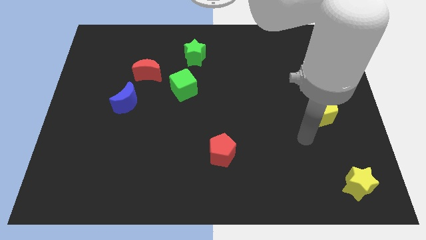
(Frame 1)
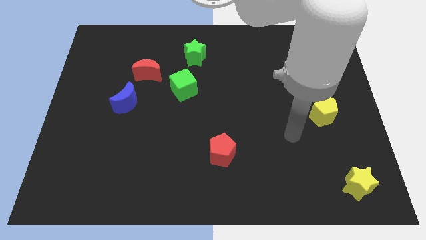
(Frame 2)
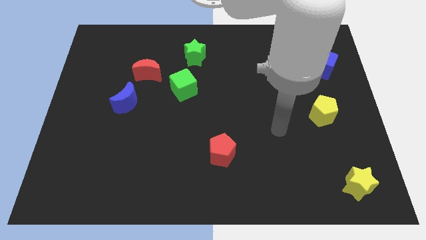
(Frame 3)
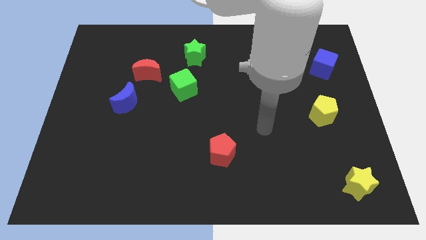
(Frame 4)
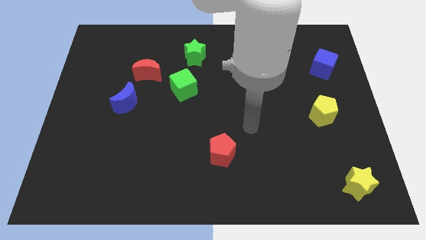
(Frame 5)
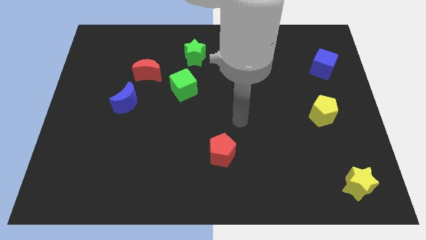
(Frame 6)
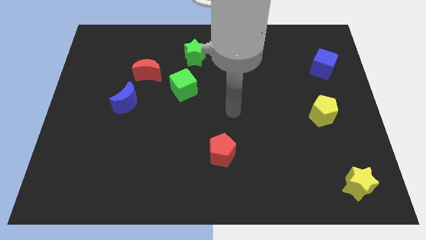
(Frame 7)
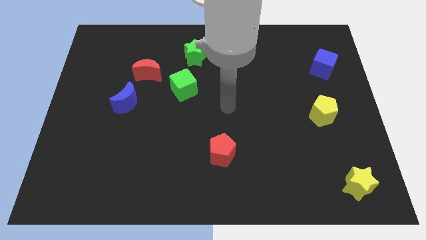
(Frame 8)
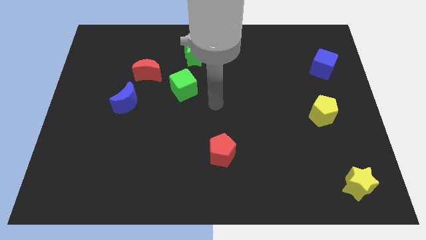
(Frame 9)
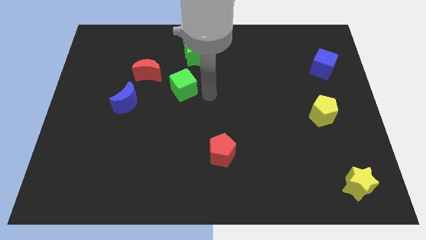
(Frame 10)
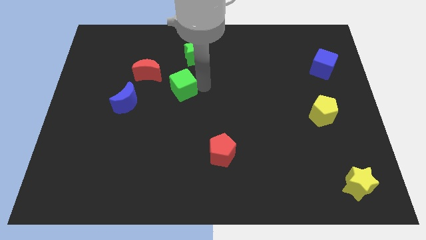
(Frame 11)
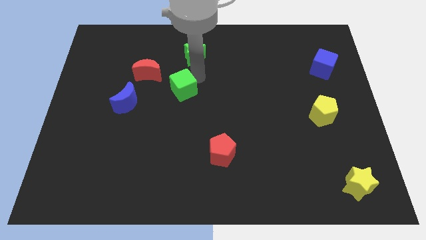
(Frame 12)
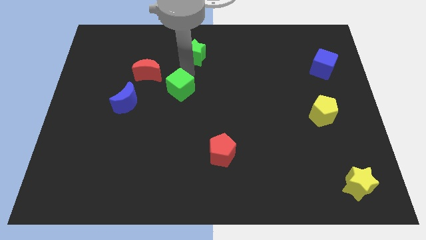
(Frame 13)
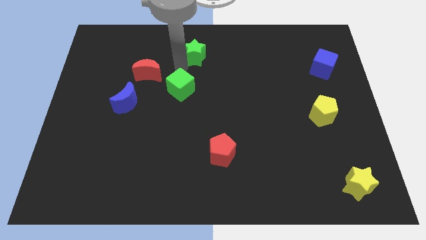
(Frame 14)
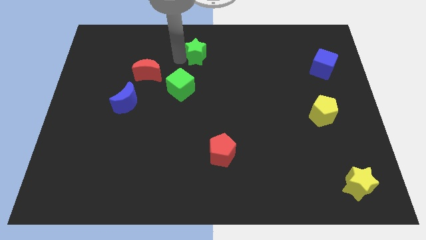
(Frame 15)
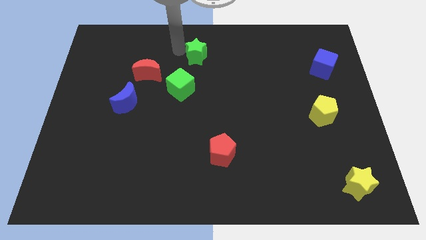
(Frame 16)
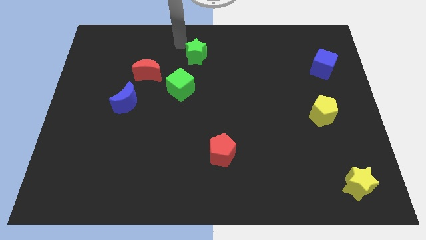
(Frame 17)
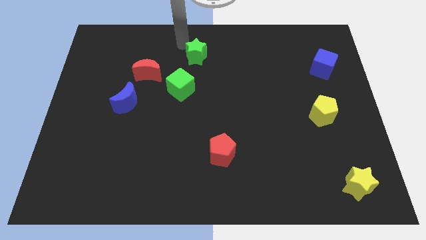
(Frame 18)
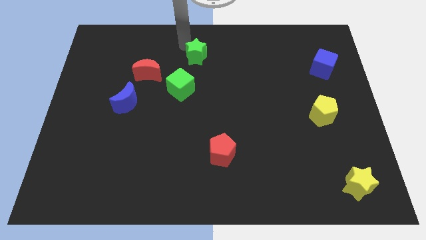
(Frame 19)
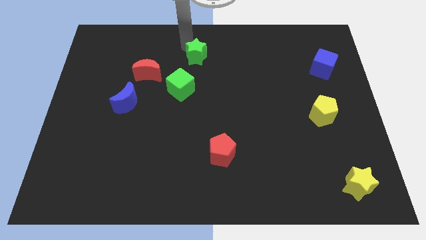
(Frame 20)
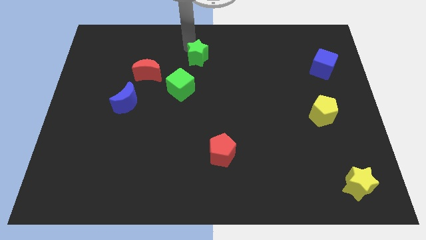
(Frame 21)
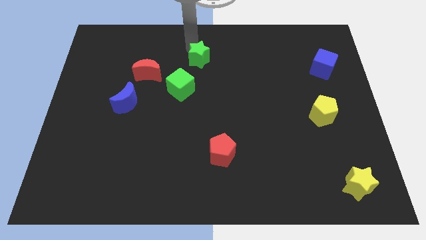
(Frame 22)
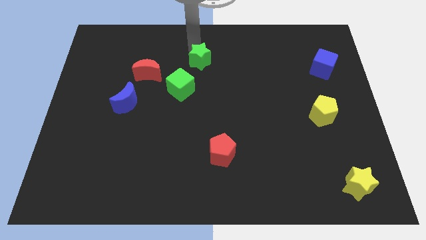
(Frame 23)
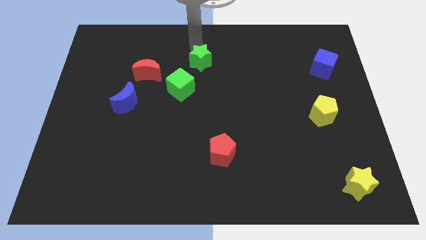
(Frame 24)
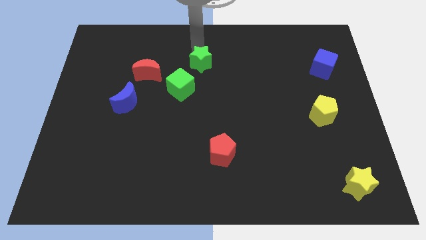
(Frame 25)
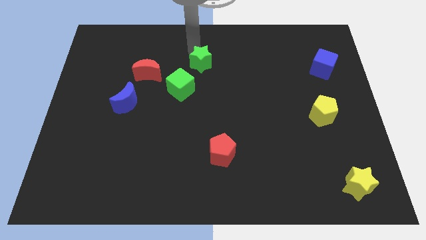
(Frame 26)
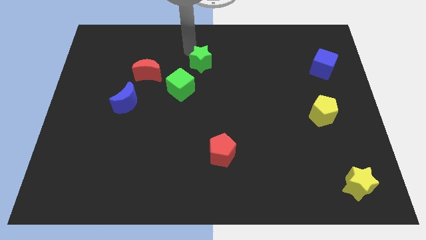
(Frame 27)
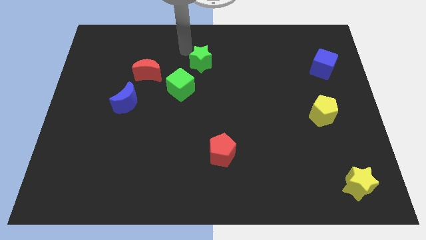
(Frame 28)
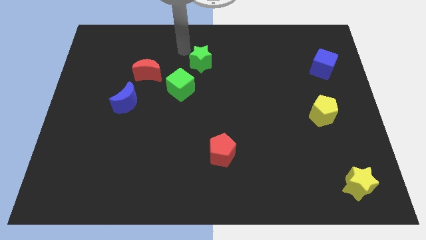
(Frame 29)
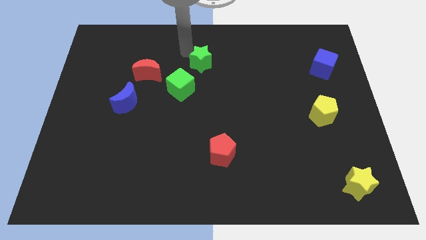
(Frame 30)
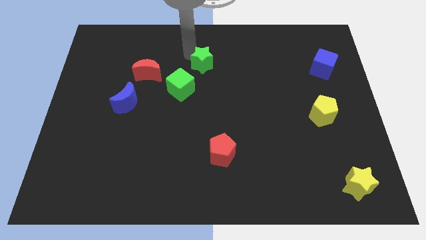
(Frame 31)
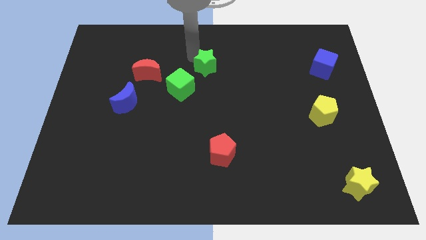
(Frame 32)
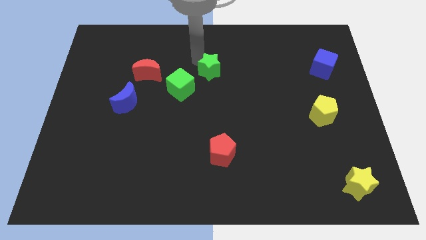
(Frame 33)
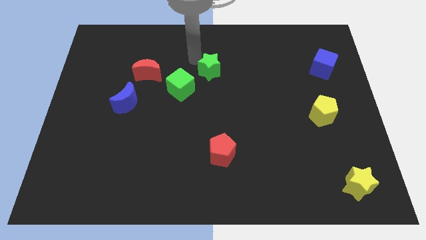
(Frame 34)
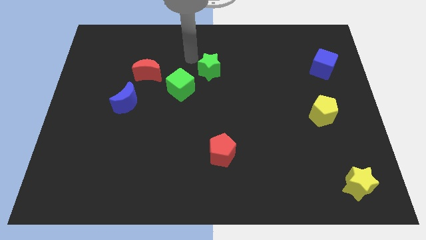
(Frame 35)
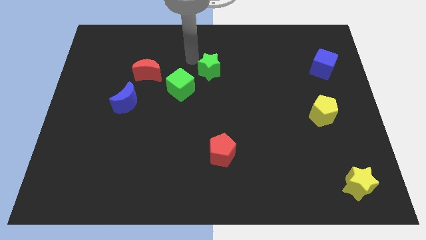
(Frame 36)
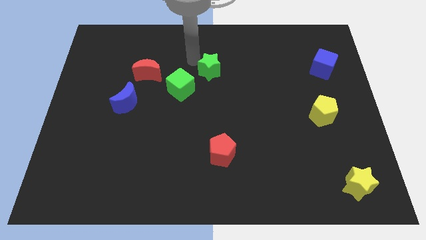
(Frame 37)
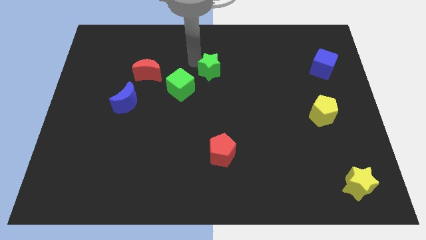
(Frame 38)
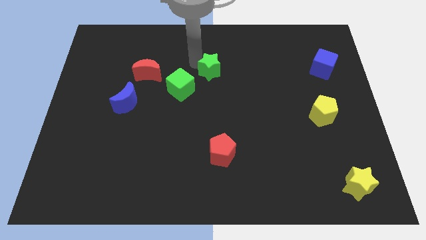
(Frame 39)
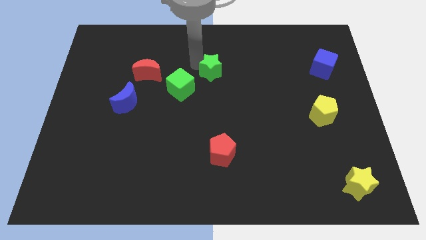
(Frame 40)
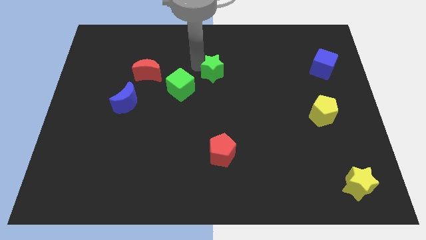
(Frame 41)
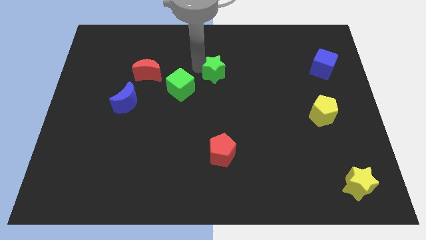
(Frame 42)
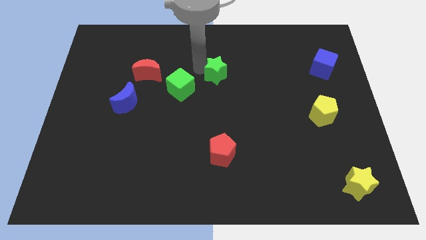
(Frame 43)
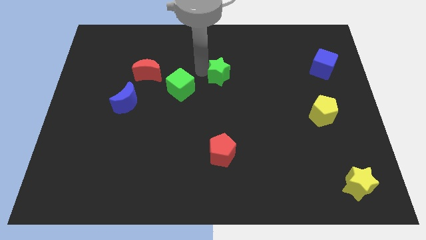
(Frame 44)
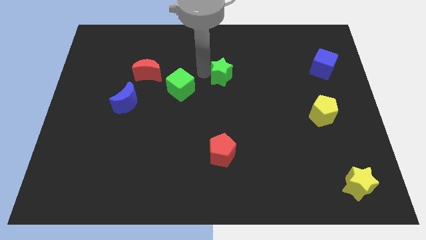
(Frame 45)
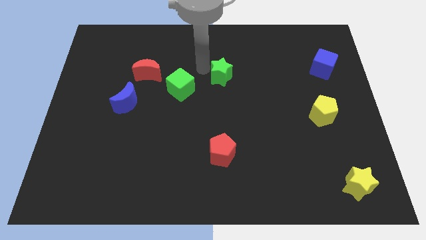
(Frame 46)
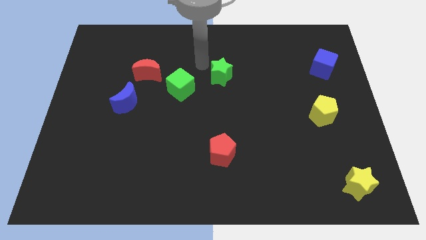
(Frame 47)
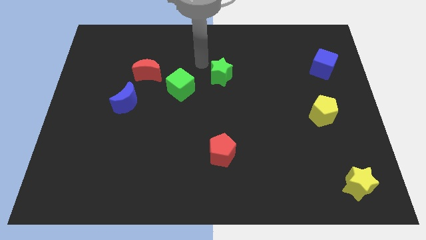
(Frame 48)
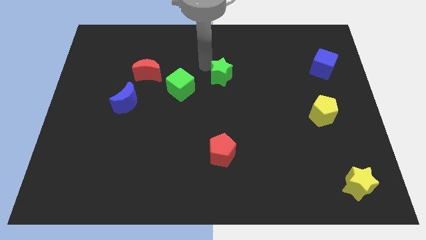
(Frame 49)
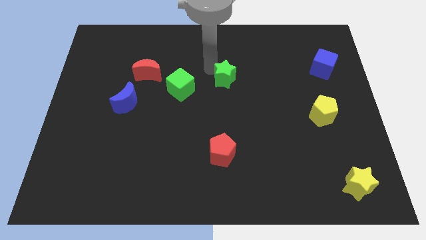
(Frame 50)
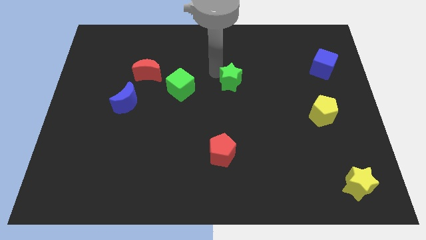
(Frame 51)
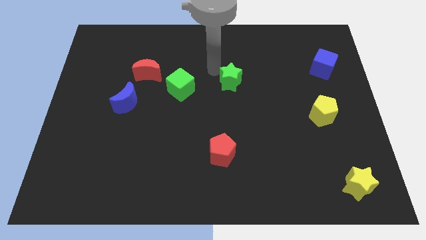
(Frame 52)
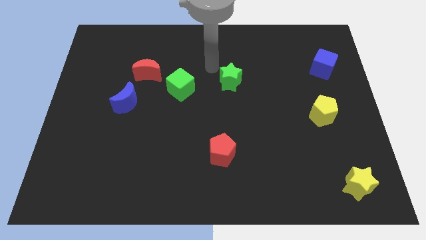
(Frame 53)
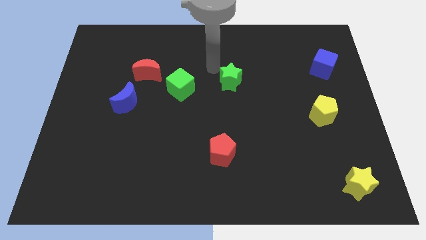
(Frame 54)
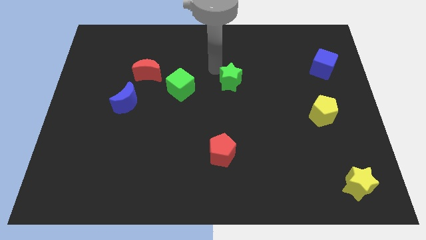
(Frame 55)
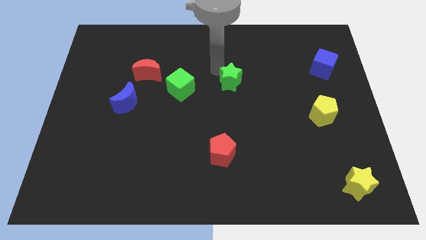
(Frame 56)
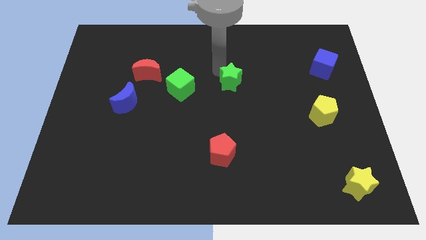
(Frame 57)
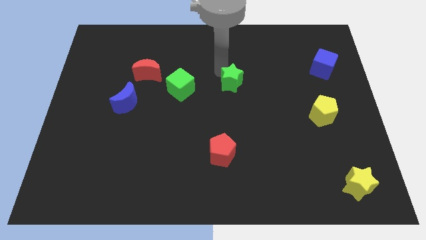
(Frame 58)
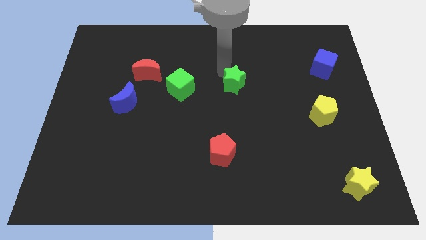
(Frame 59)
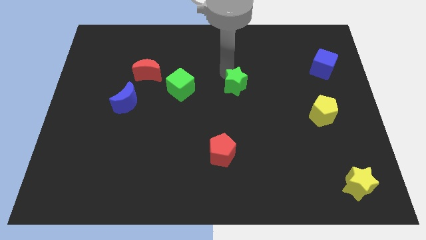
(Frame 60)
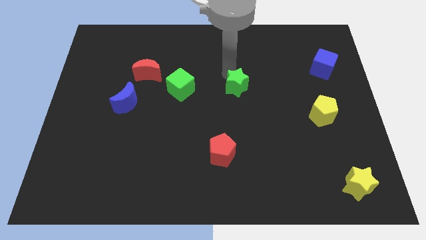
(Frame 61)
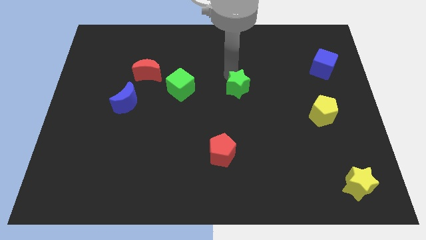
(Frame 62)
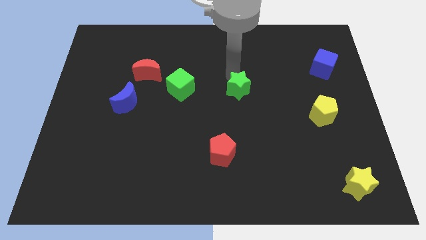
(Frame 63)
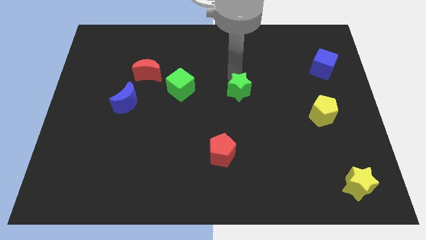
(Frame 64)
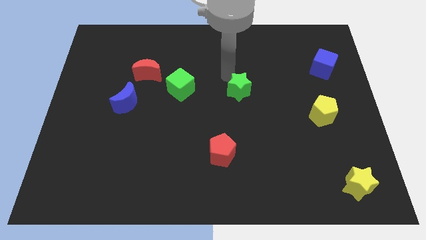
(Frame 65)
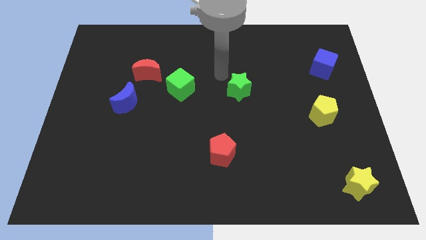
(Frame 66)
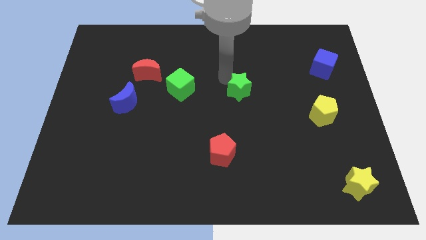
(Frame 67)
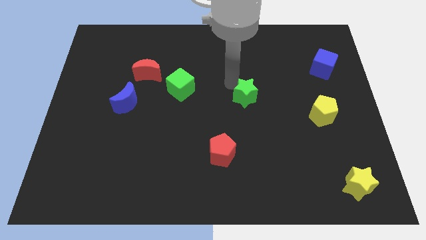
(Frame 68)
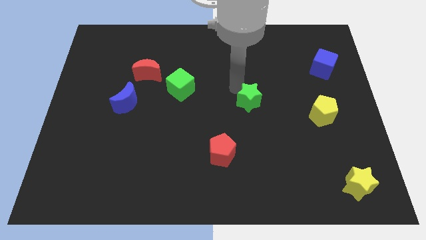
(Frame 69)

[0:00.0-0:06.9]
move the green star down and right diagonally

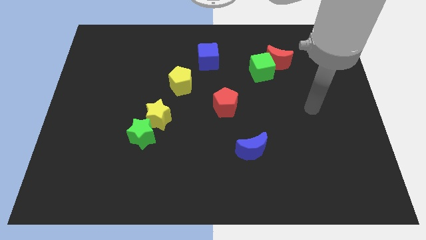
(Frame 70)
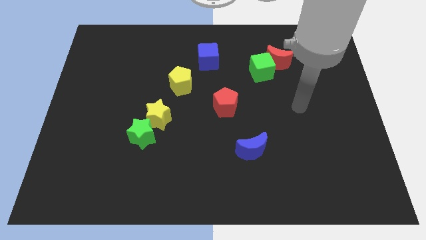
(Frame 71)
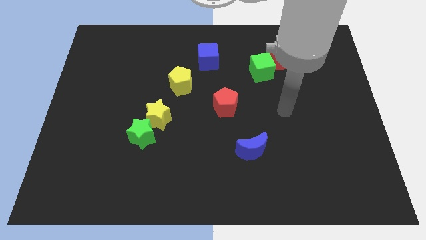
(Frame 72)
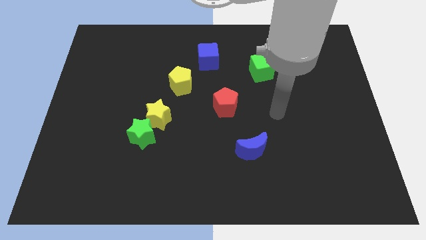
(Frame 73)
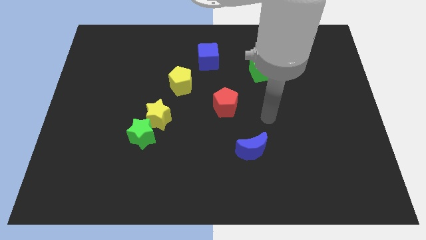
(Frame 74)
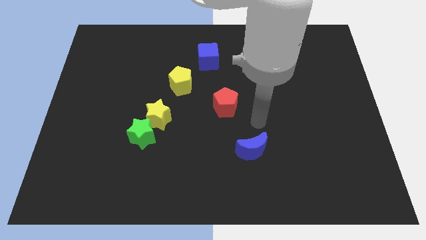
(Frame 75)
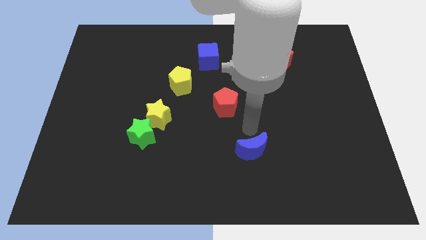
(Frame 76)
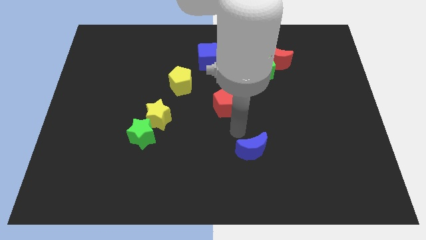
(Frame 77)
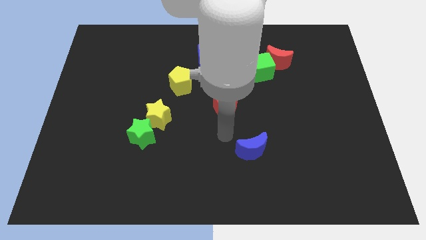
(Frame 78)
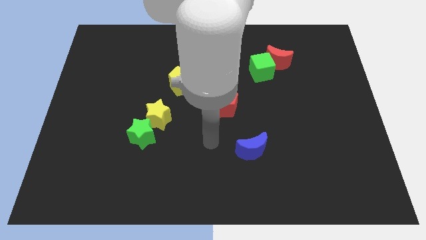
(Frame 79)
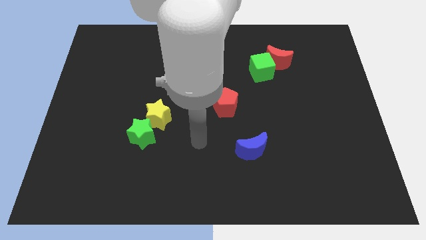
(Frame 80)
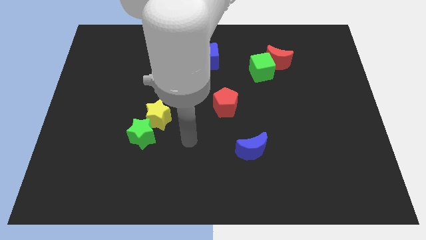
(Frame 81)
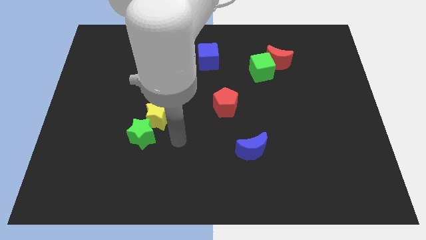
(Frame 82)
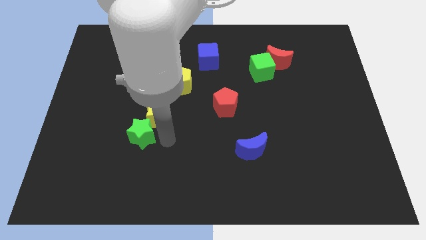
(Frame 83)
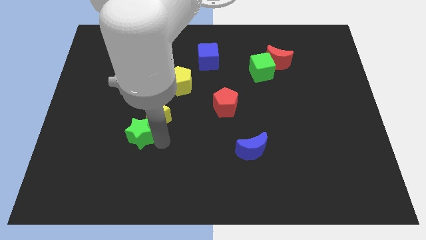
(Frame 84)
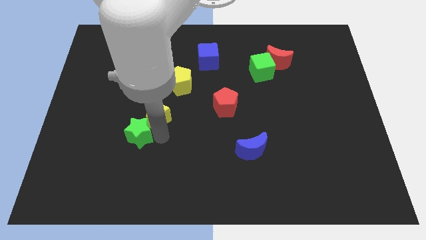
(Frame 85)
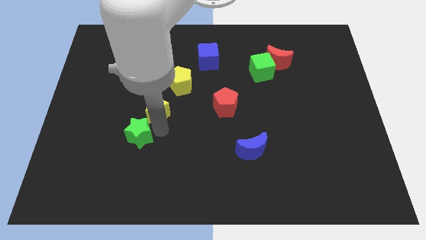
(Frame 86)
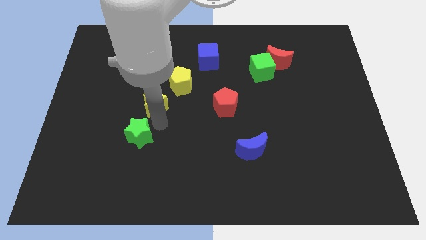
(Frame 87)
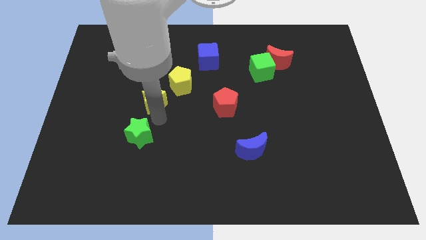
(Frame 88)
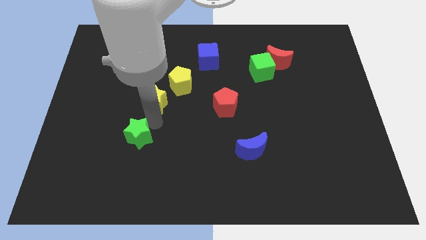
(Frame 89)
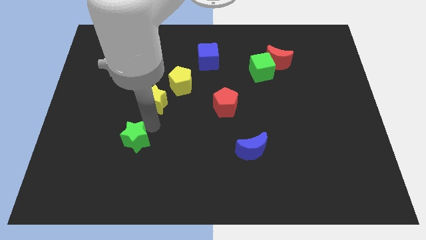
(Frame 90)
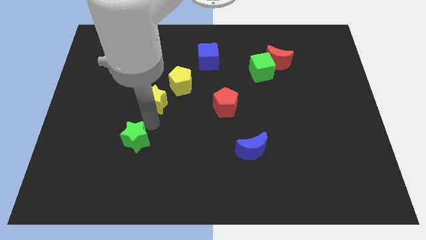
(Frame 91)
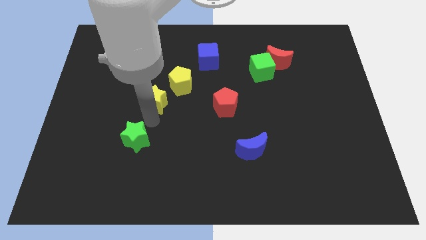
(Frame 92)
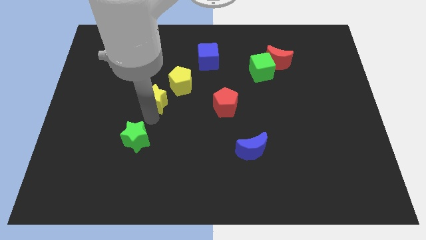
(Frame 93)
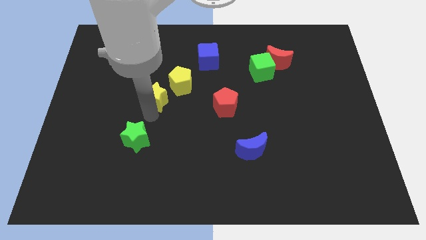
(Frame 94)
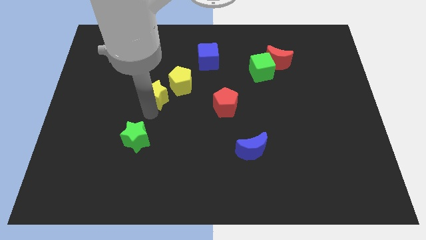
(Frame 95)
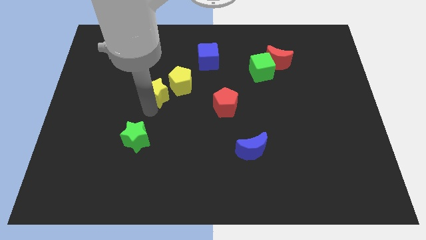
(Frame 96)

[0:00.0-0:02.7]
move the yellow star somewhat upwards
